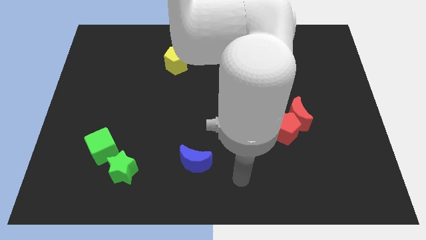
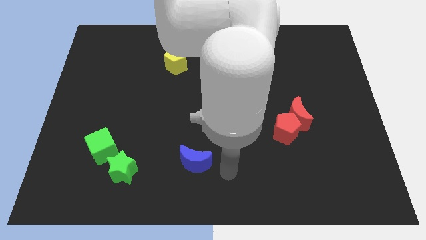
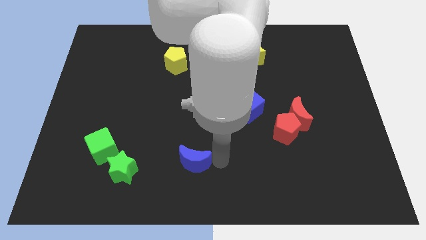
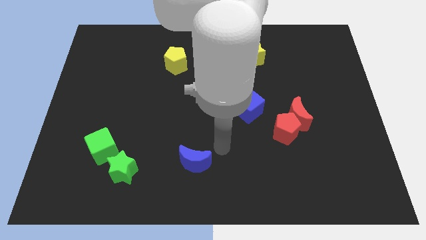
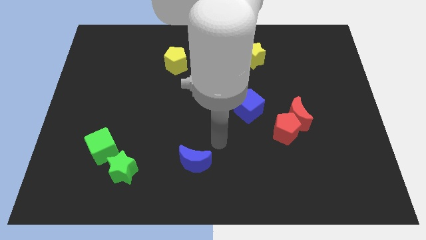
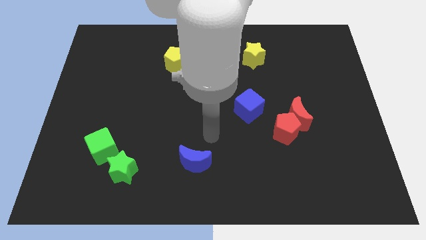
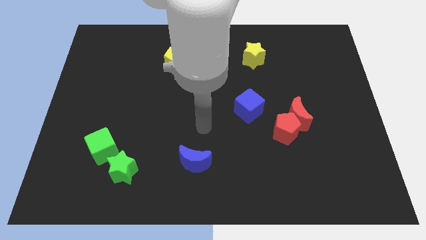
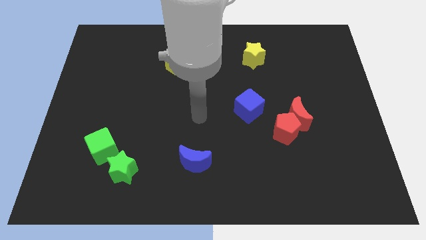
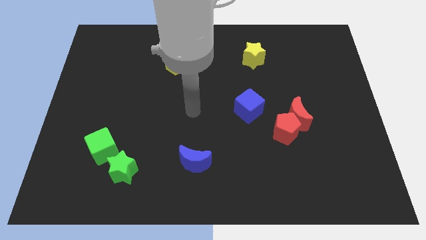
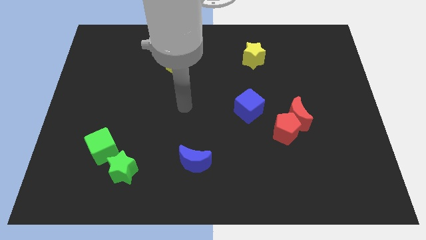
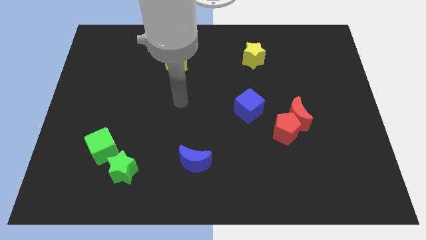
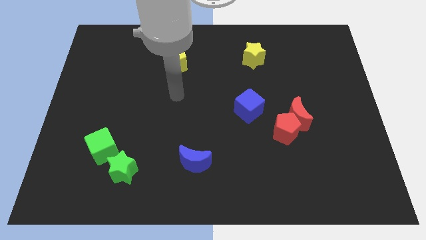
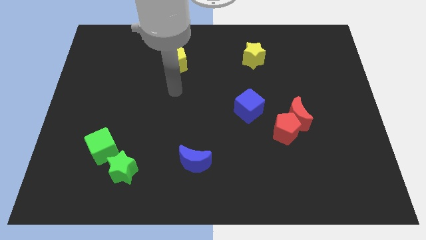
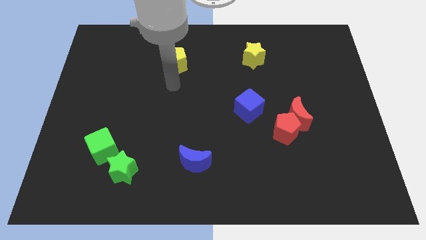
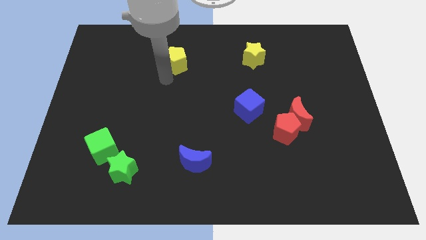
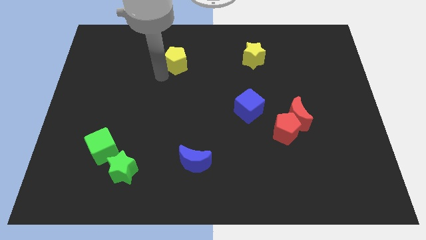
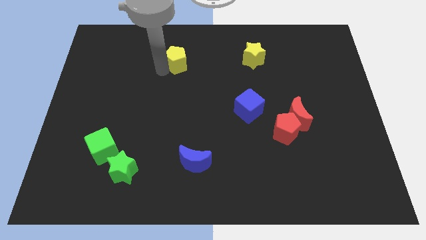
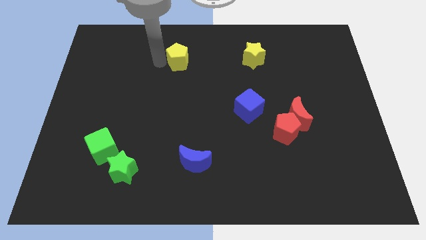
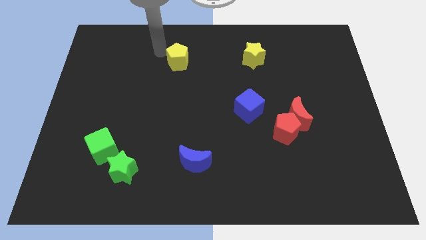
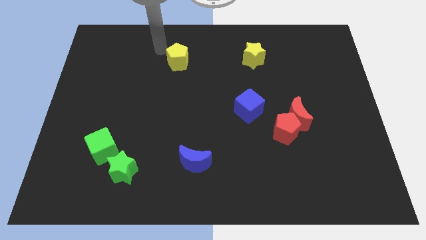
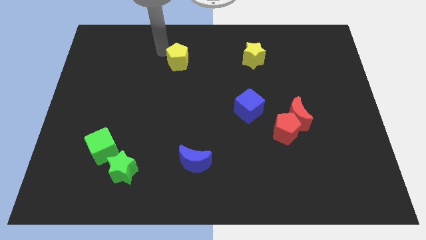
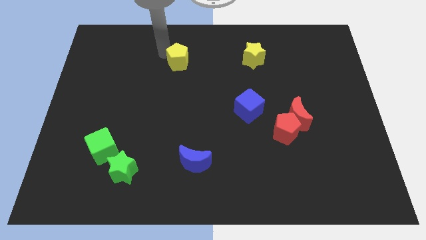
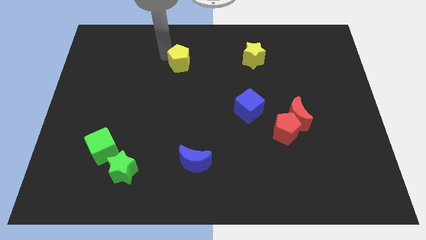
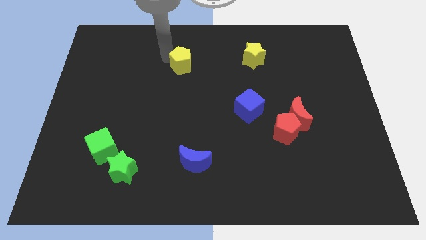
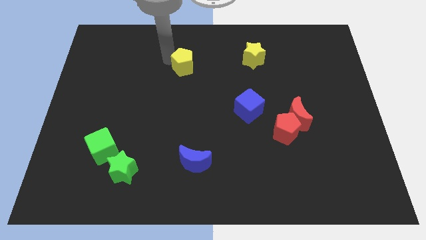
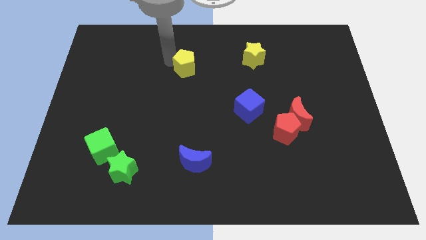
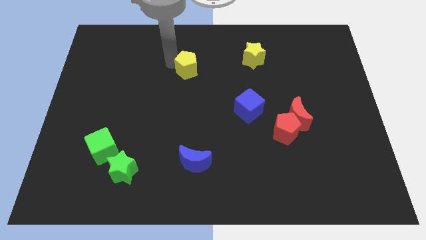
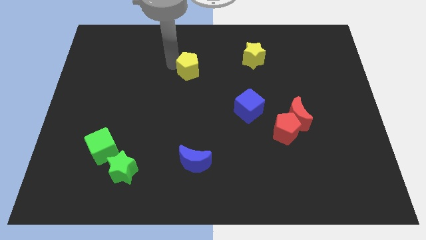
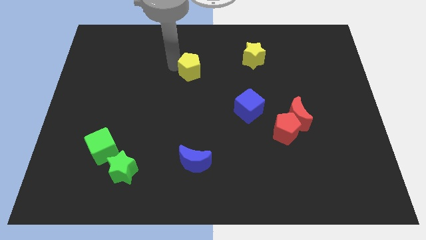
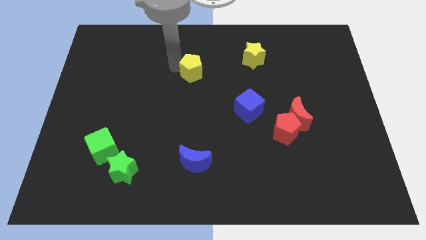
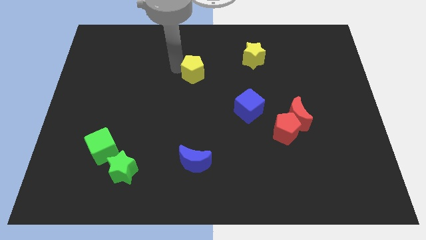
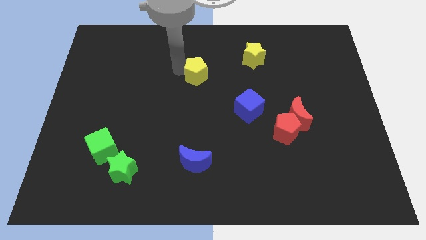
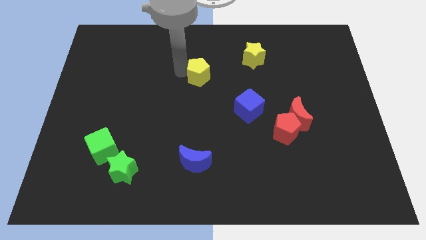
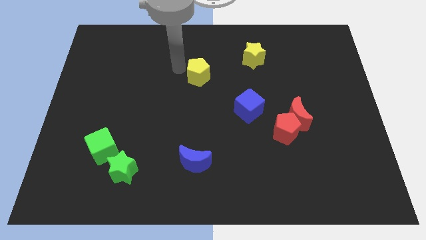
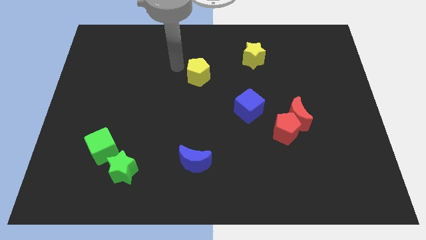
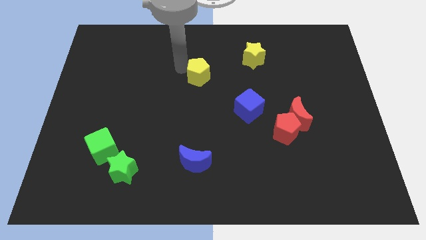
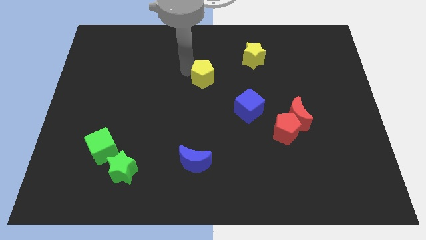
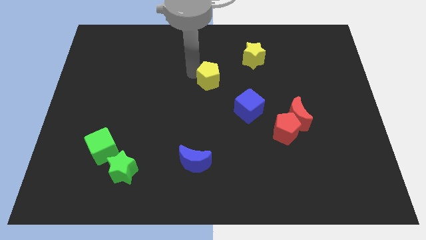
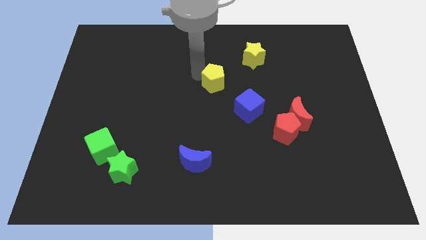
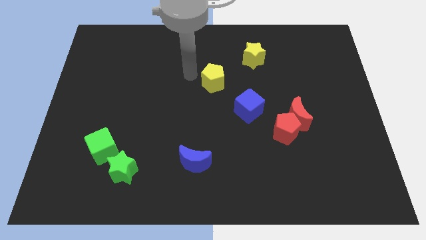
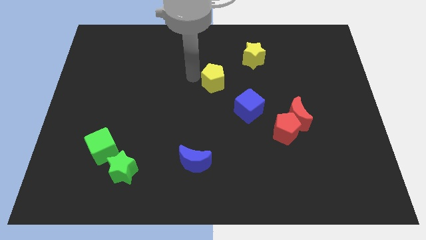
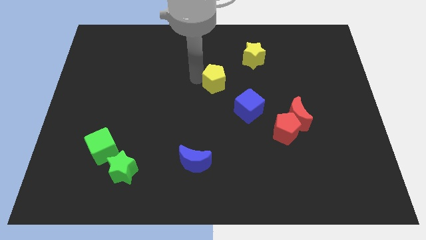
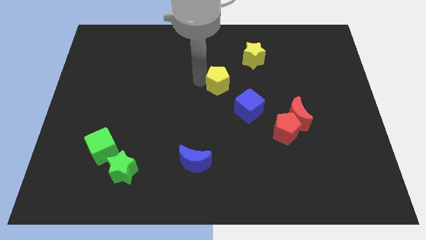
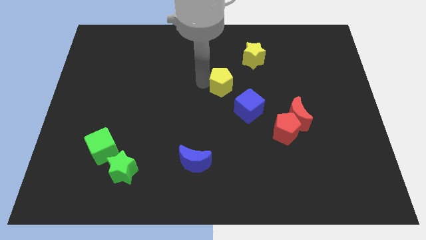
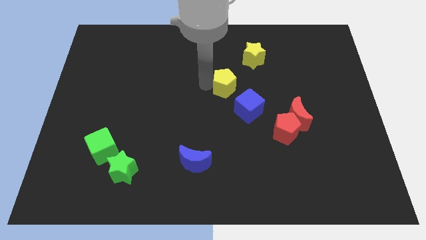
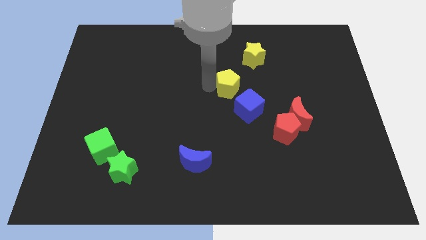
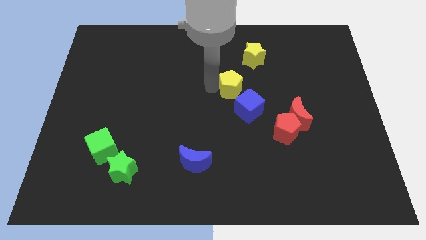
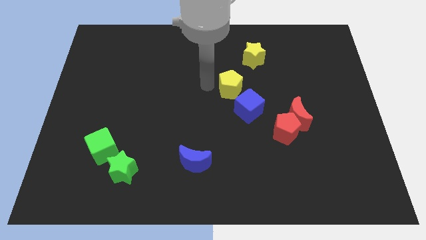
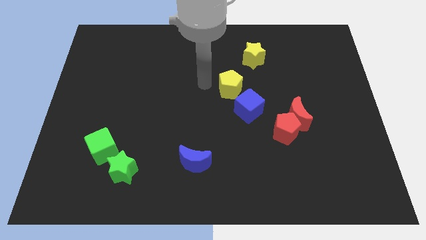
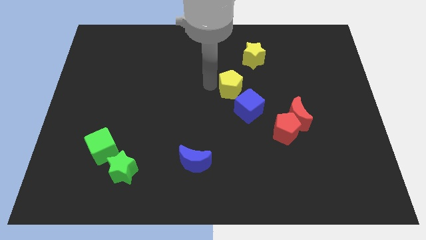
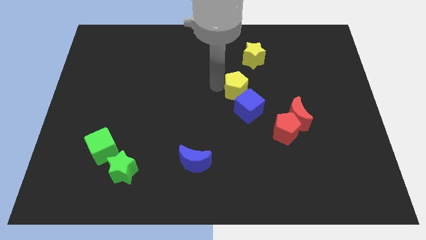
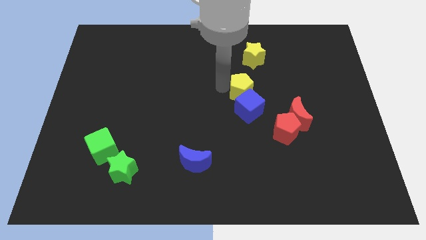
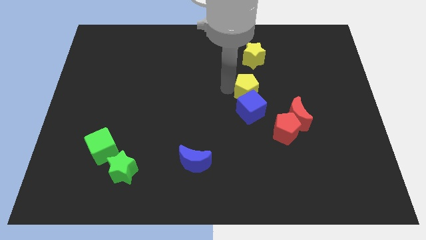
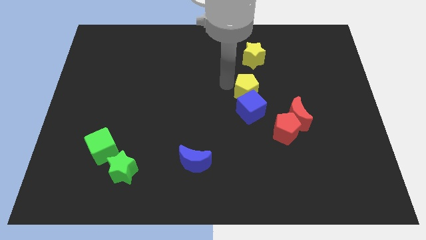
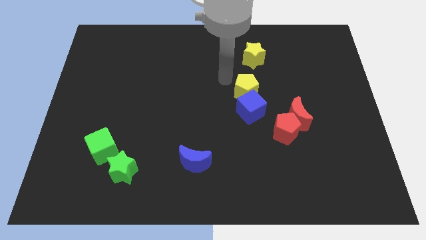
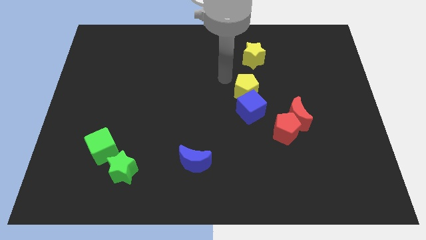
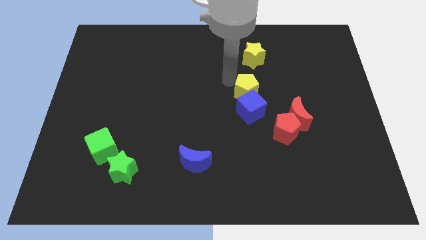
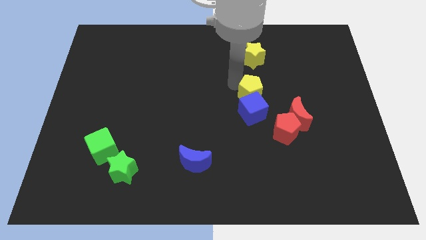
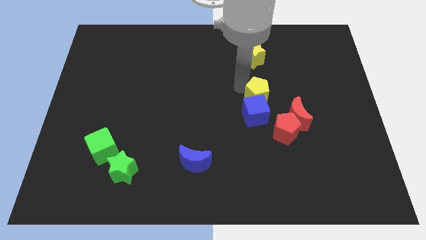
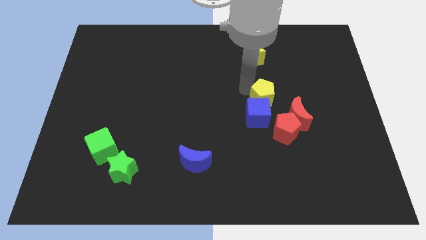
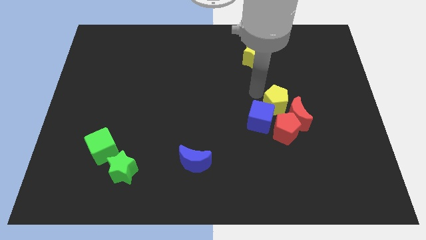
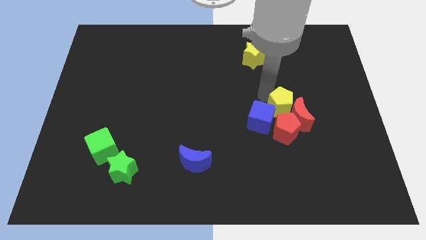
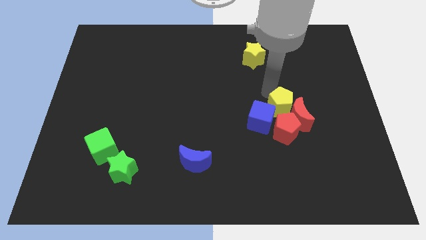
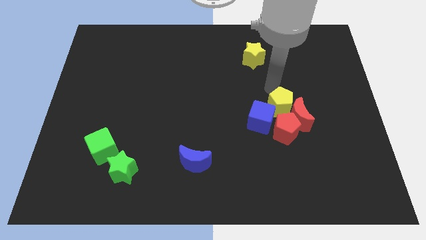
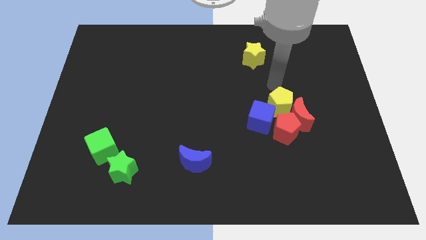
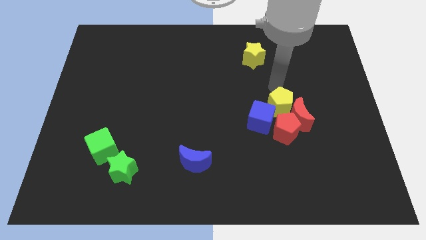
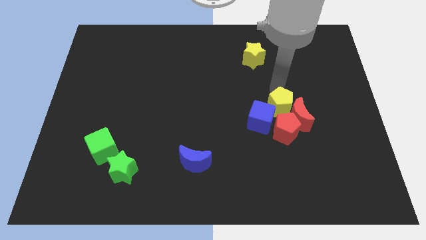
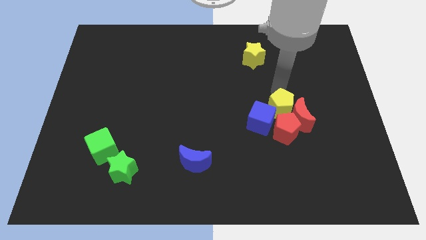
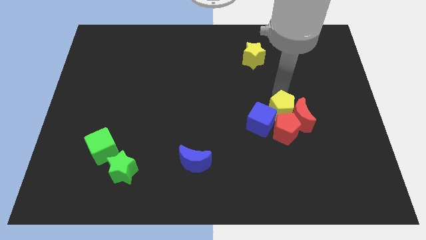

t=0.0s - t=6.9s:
move the yellow pentagon next to the red pentagon

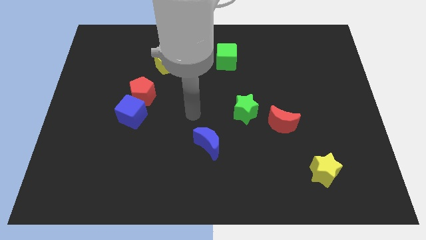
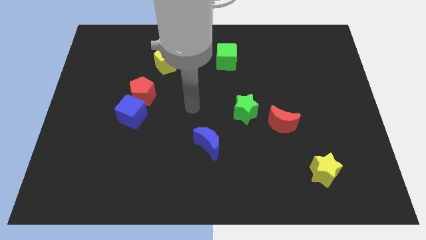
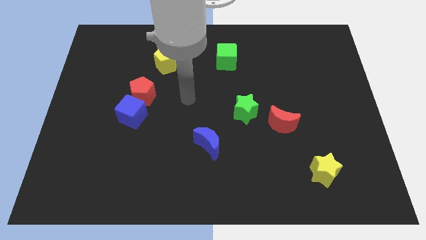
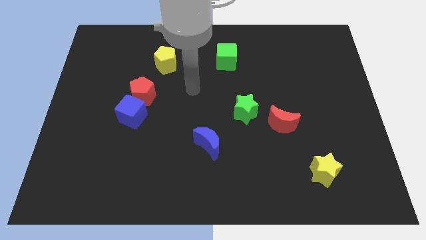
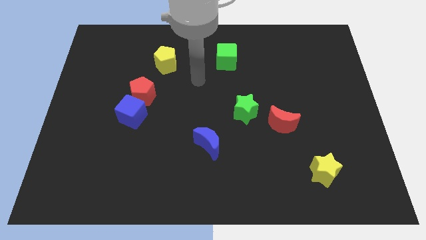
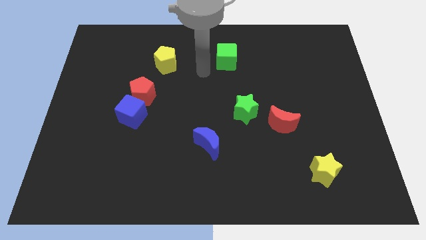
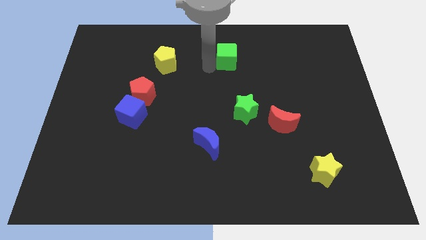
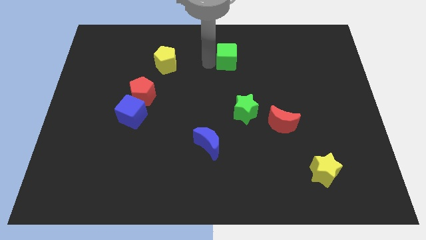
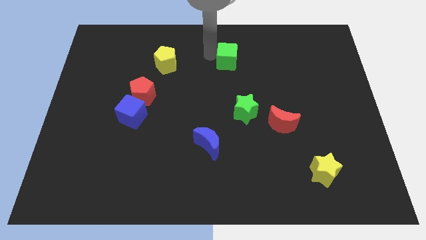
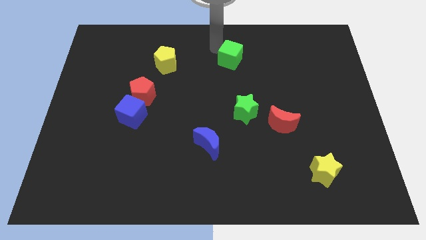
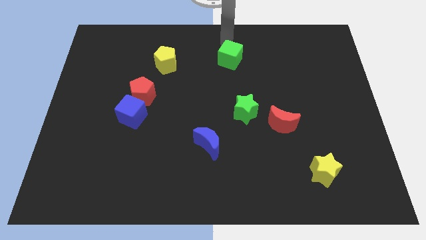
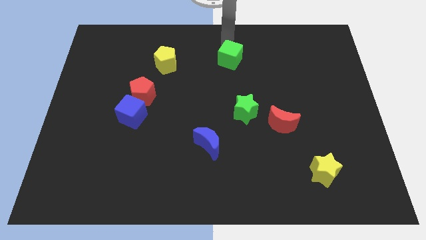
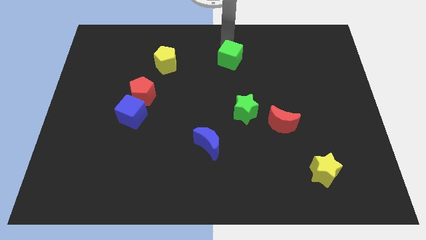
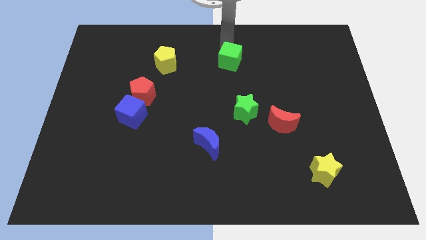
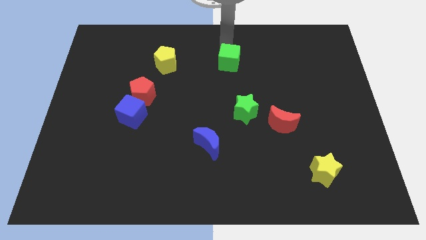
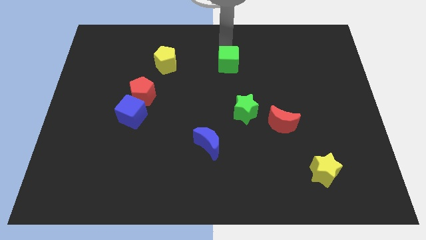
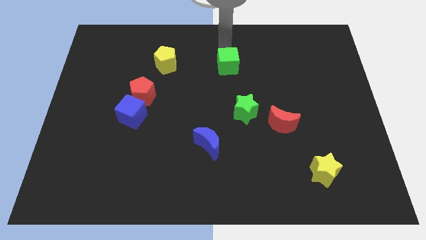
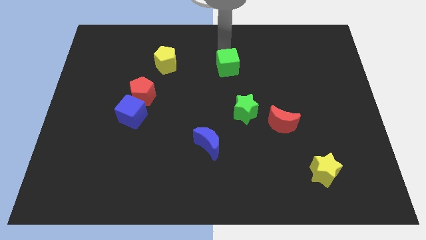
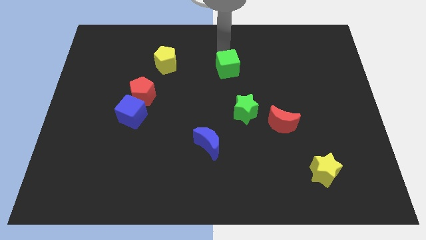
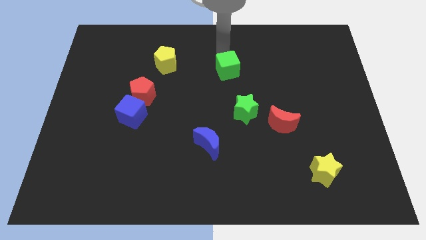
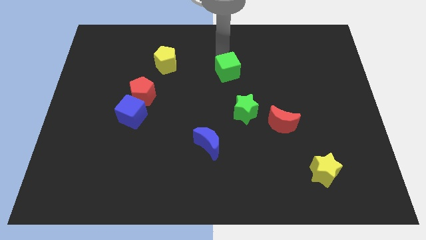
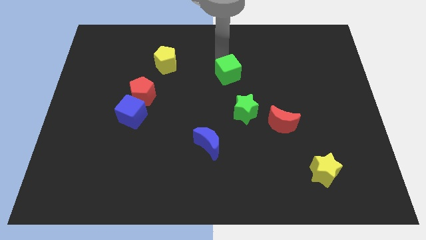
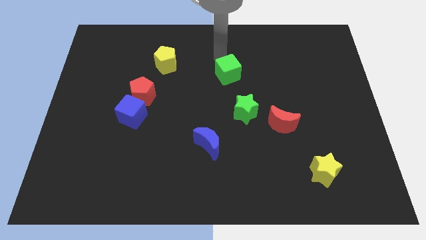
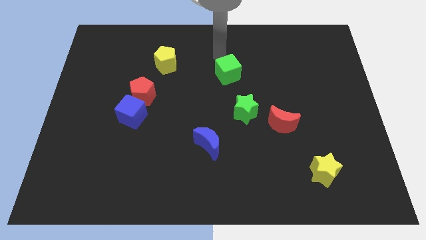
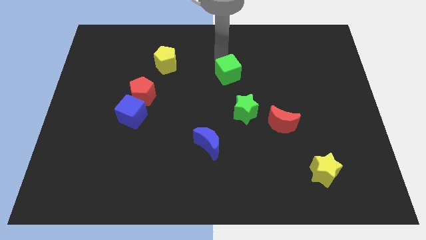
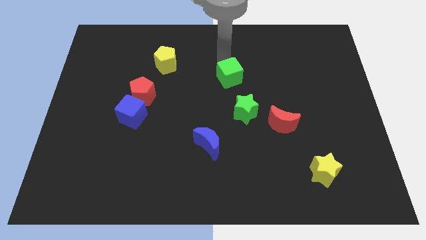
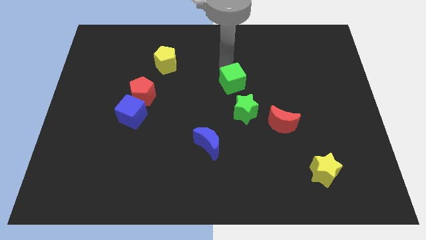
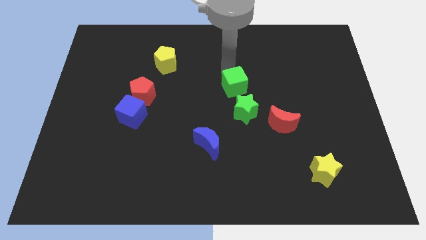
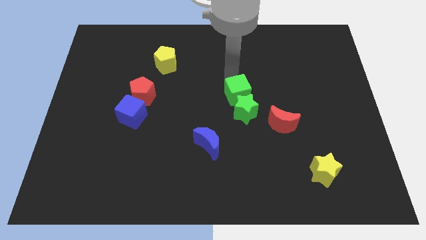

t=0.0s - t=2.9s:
put the green cube towards the green star
